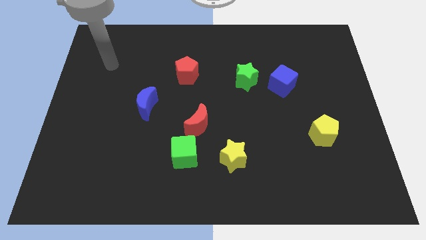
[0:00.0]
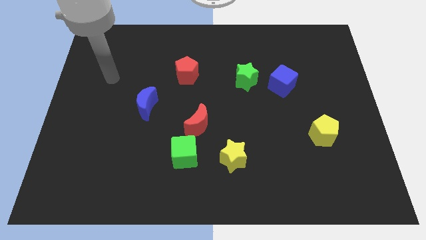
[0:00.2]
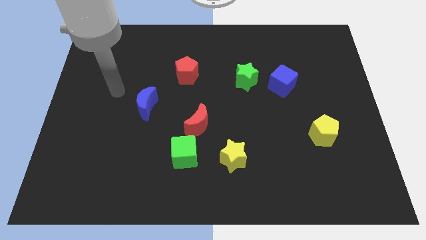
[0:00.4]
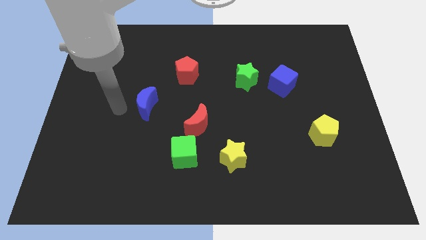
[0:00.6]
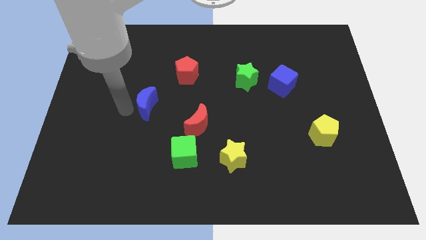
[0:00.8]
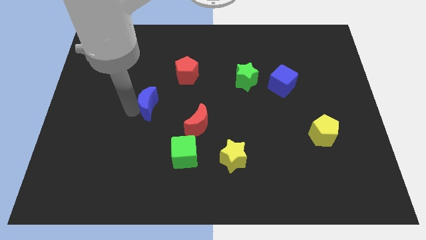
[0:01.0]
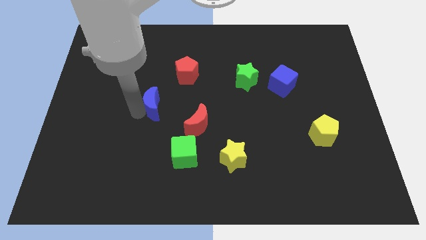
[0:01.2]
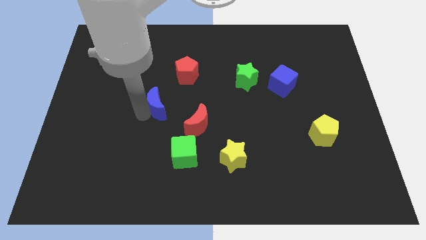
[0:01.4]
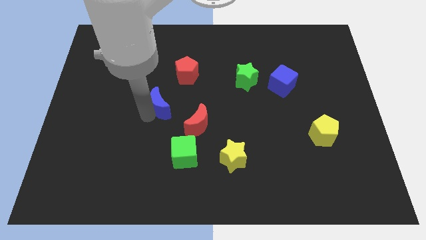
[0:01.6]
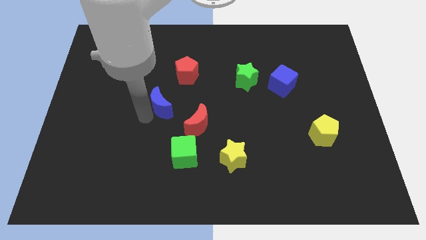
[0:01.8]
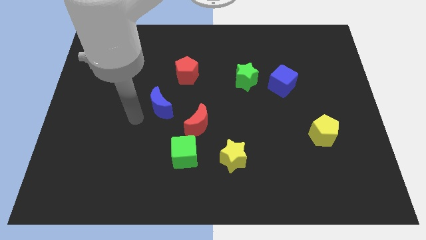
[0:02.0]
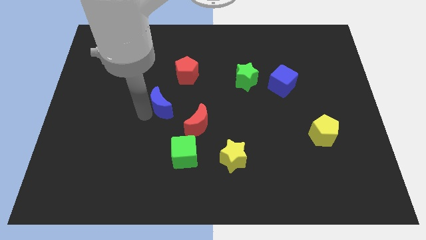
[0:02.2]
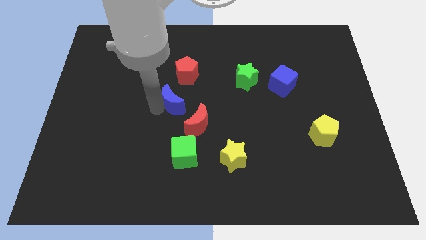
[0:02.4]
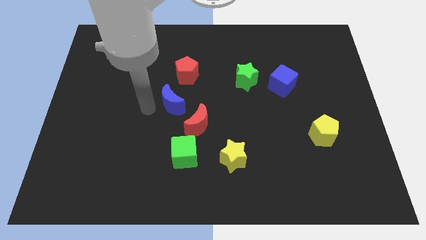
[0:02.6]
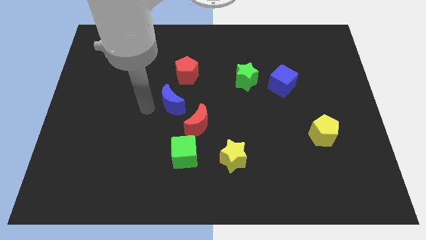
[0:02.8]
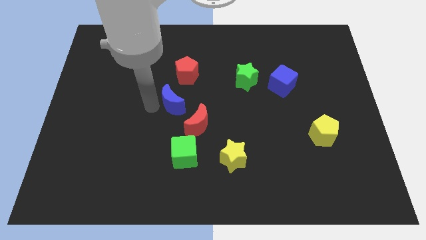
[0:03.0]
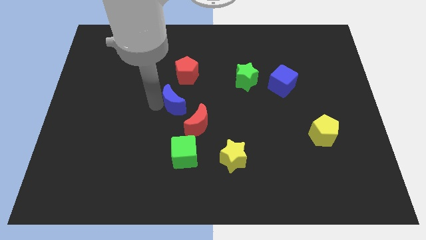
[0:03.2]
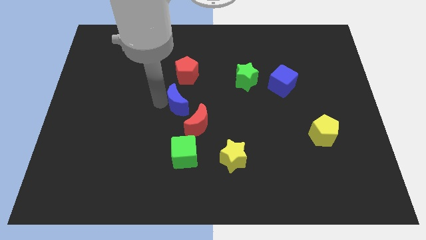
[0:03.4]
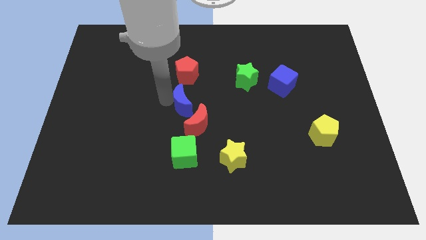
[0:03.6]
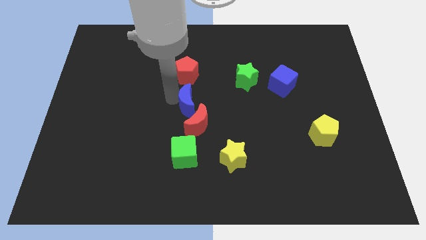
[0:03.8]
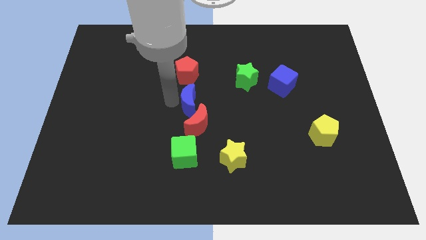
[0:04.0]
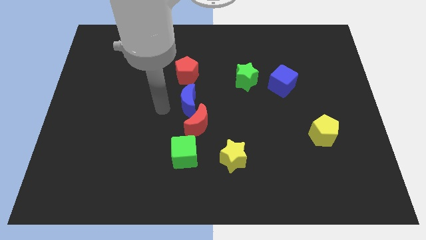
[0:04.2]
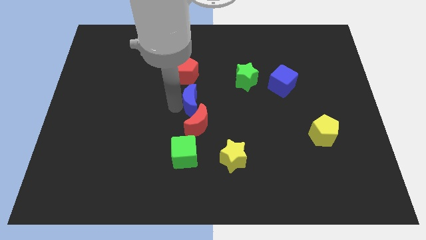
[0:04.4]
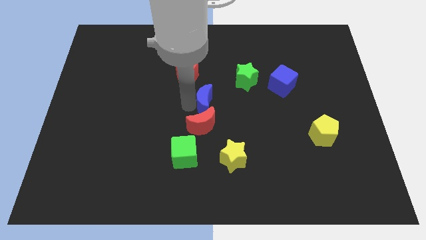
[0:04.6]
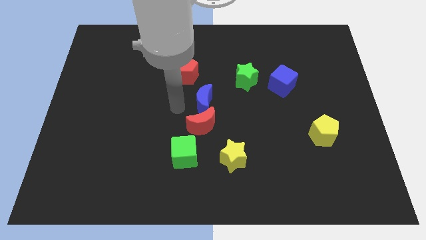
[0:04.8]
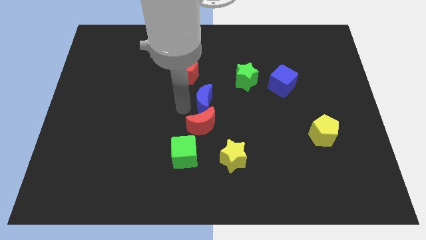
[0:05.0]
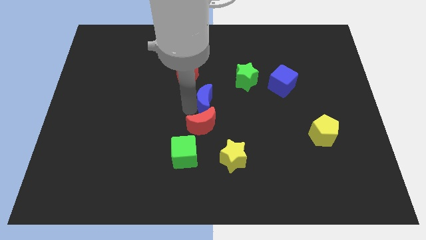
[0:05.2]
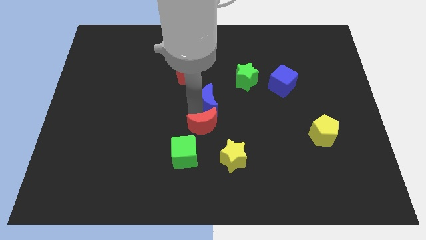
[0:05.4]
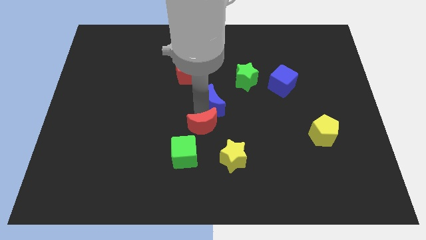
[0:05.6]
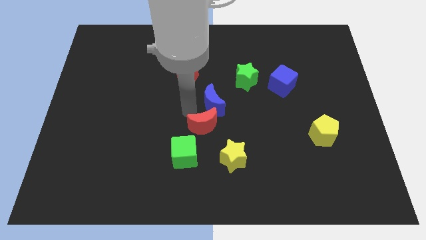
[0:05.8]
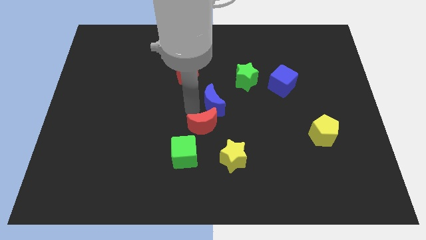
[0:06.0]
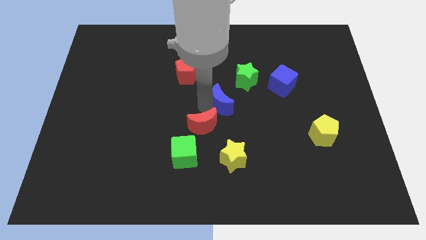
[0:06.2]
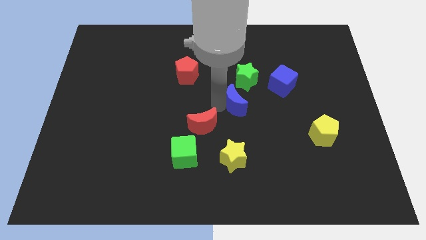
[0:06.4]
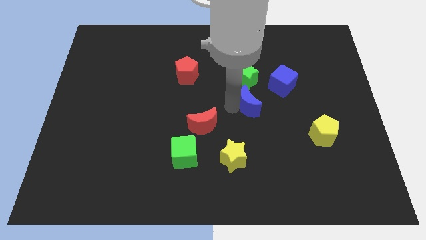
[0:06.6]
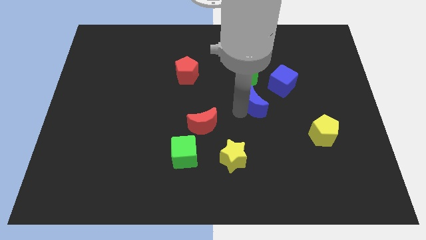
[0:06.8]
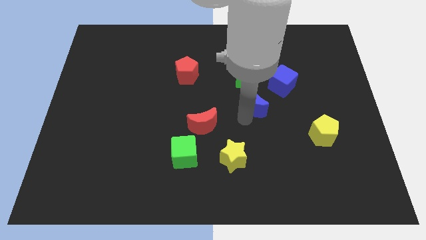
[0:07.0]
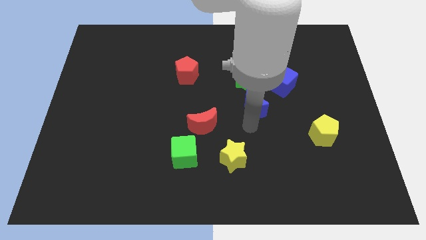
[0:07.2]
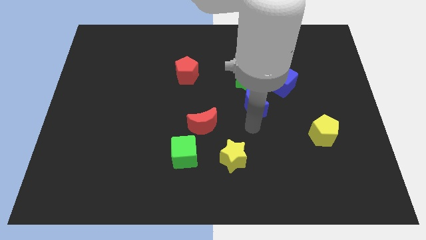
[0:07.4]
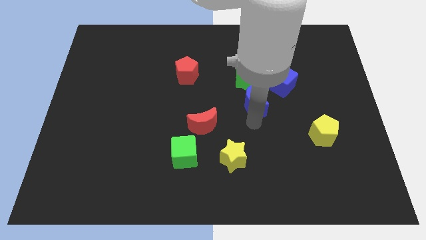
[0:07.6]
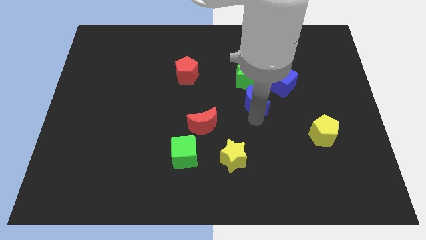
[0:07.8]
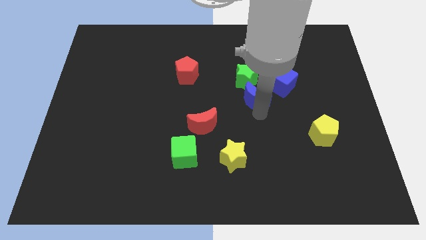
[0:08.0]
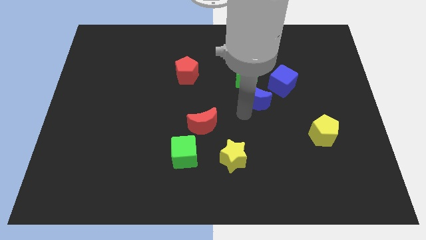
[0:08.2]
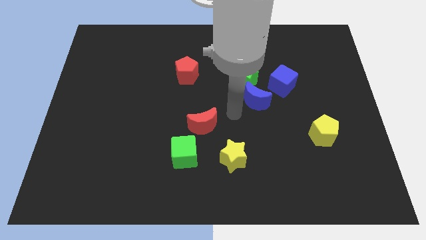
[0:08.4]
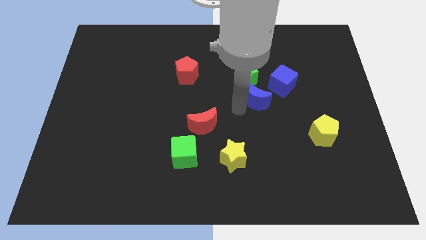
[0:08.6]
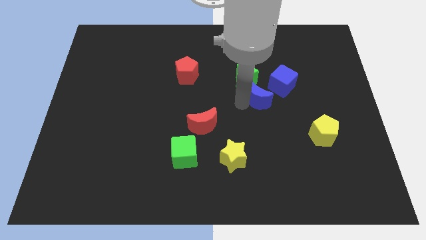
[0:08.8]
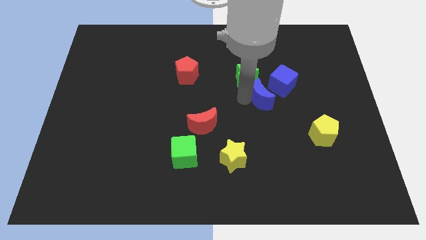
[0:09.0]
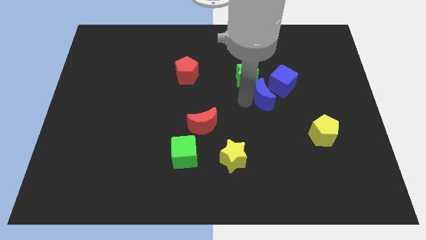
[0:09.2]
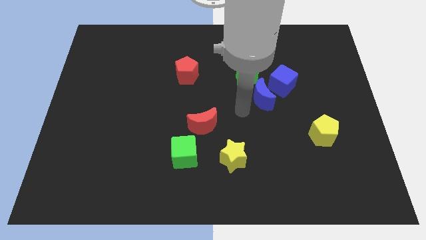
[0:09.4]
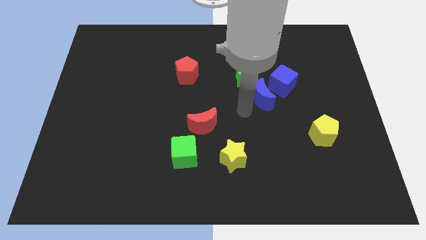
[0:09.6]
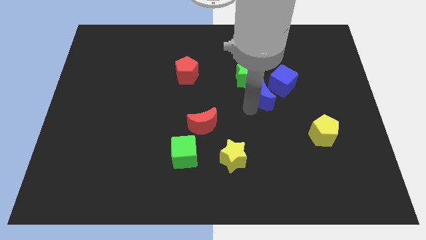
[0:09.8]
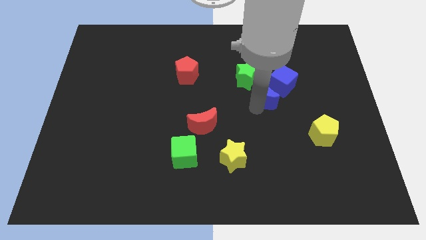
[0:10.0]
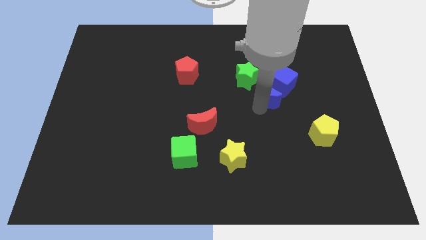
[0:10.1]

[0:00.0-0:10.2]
move the blue moon to the blue cube

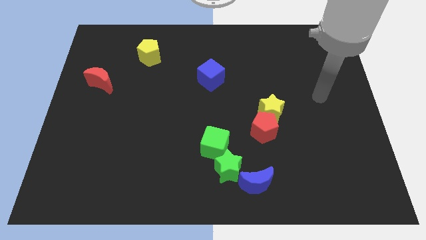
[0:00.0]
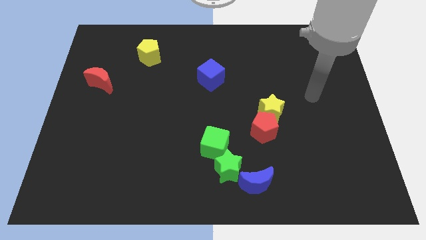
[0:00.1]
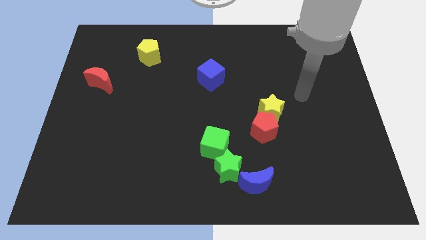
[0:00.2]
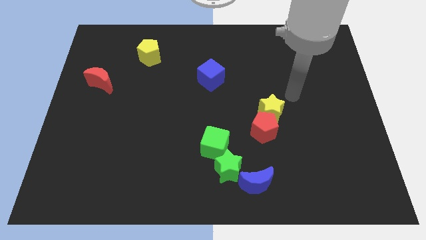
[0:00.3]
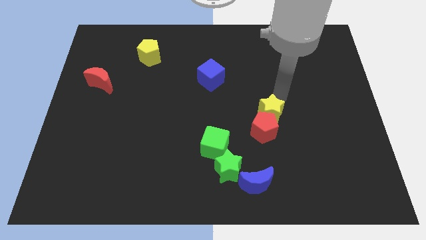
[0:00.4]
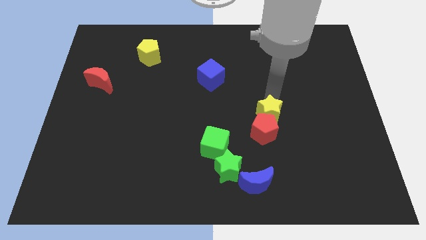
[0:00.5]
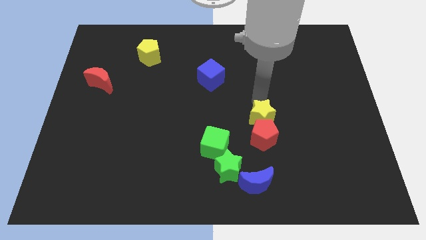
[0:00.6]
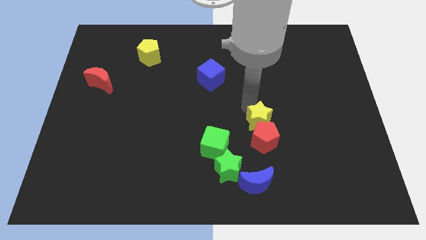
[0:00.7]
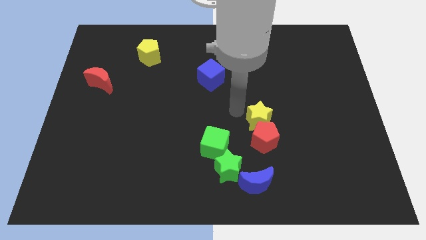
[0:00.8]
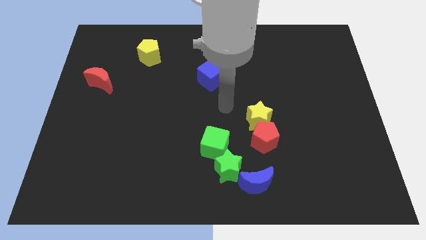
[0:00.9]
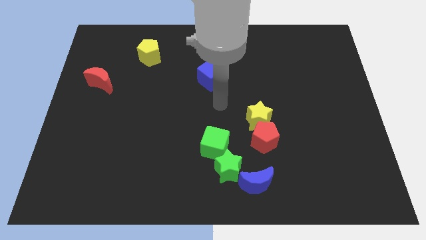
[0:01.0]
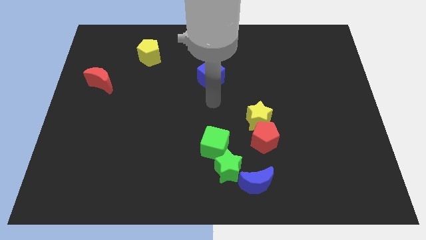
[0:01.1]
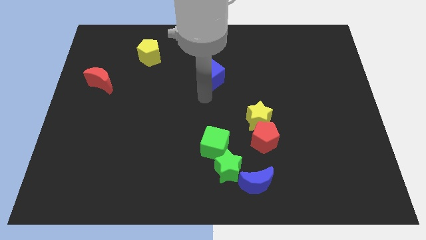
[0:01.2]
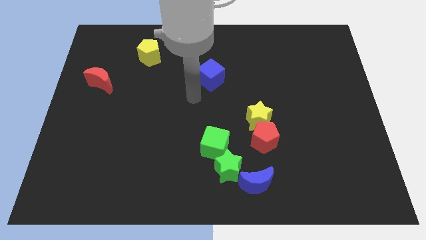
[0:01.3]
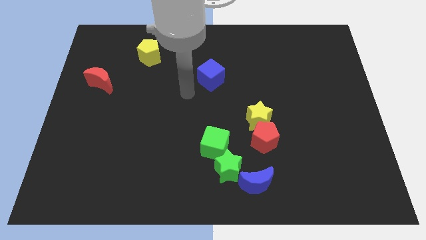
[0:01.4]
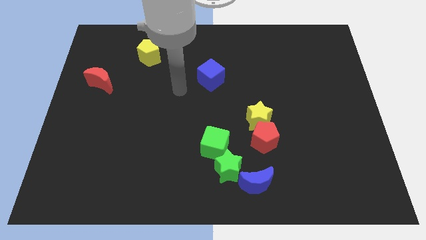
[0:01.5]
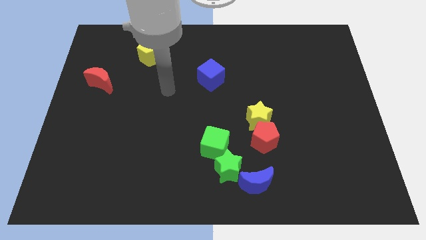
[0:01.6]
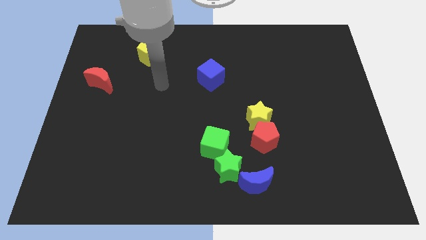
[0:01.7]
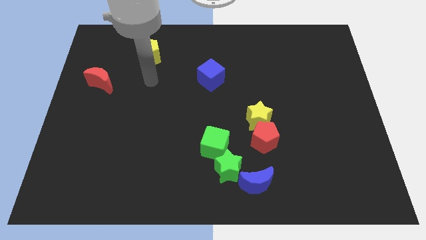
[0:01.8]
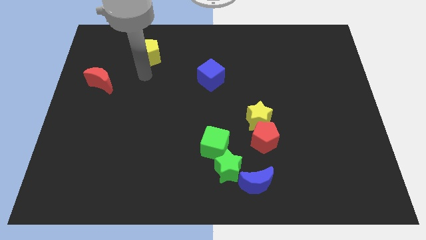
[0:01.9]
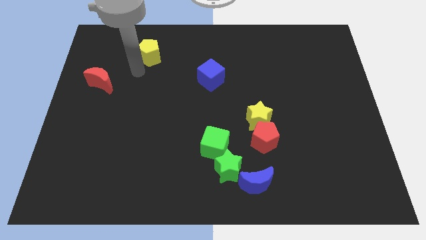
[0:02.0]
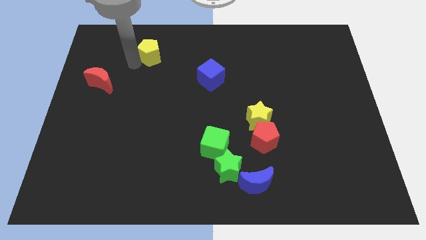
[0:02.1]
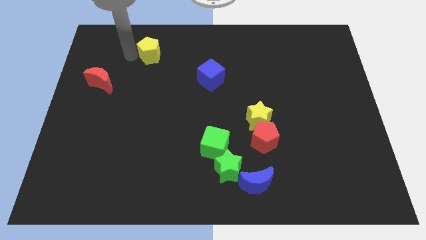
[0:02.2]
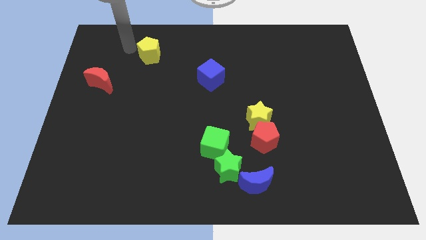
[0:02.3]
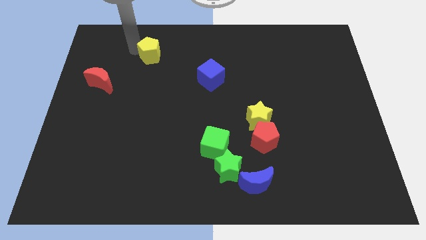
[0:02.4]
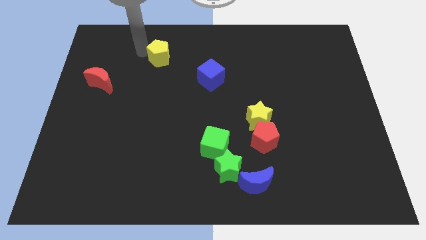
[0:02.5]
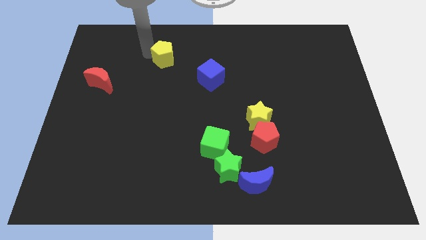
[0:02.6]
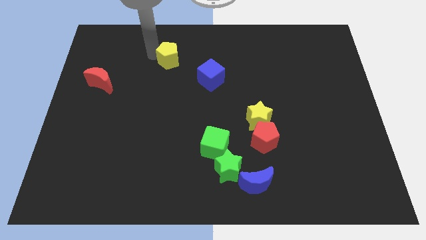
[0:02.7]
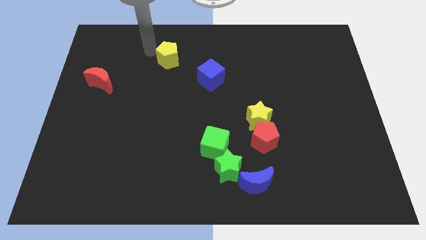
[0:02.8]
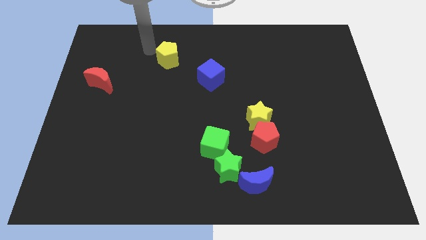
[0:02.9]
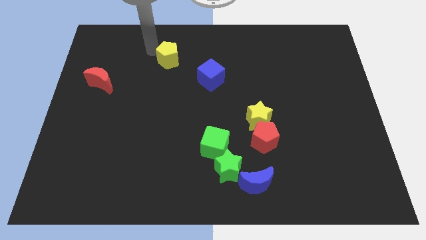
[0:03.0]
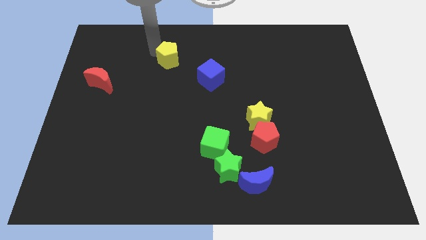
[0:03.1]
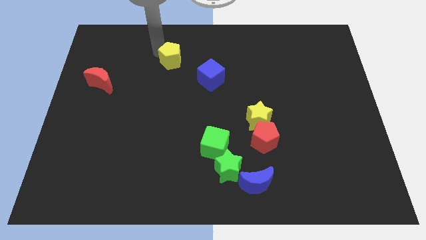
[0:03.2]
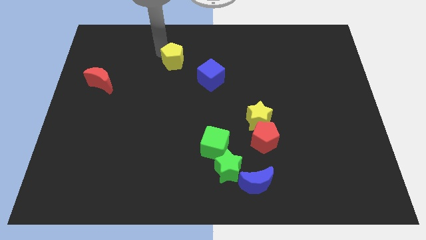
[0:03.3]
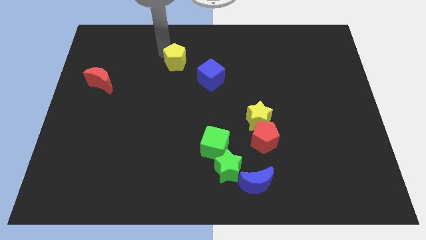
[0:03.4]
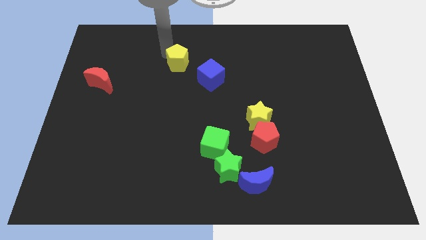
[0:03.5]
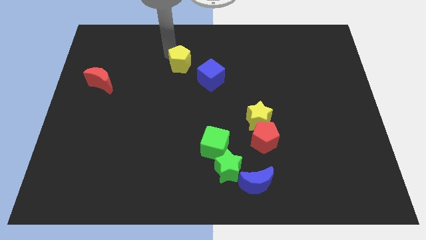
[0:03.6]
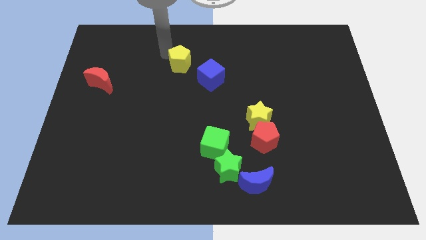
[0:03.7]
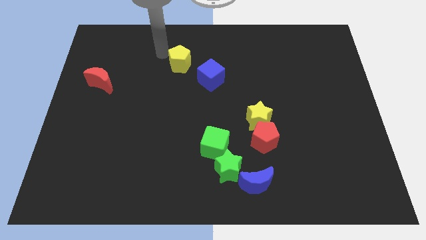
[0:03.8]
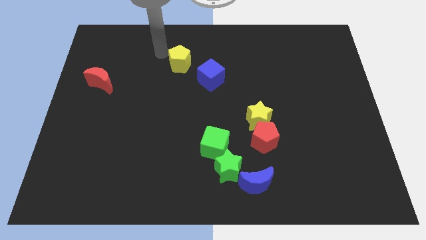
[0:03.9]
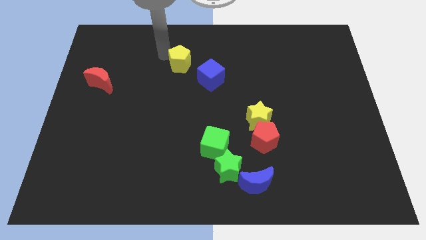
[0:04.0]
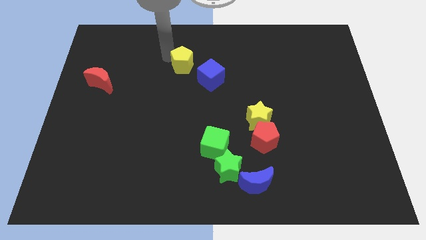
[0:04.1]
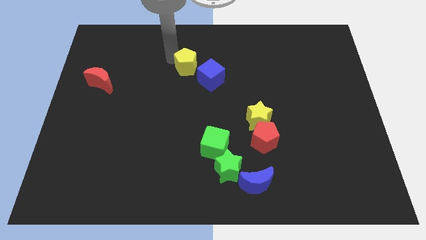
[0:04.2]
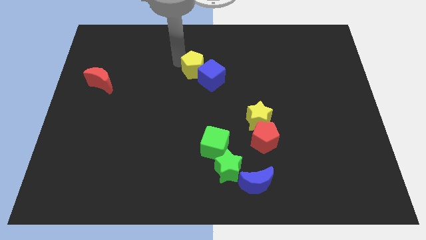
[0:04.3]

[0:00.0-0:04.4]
move the yellow pentagon next to the blue cube
